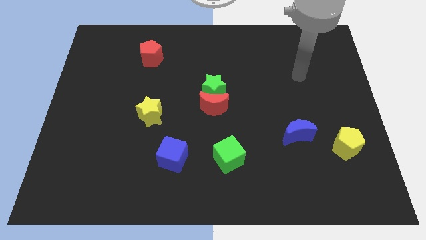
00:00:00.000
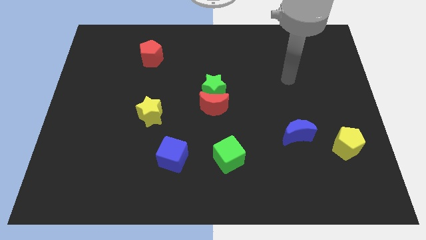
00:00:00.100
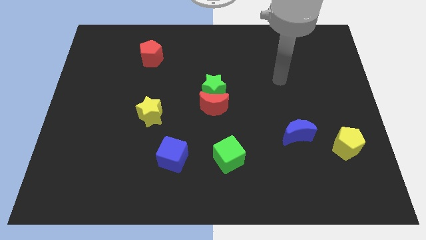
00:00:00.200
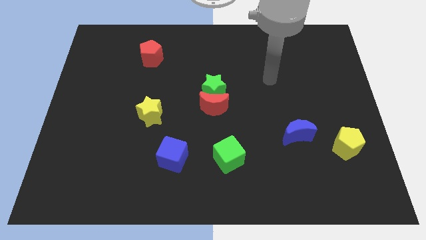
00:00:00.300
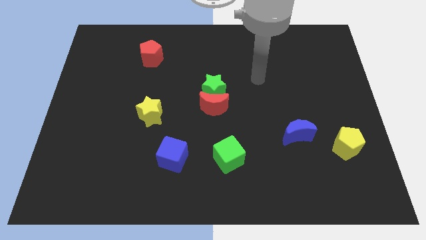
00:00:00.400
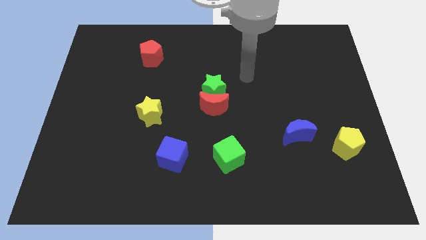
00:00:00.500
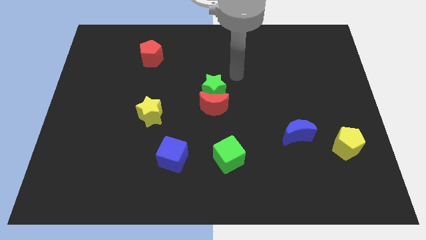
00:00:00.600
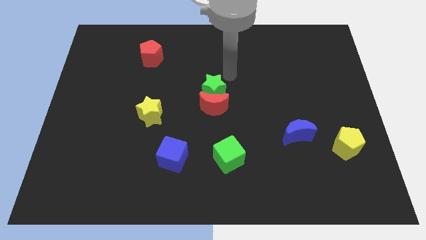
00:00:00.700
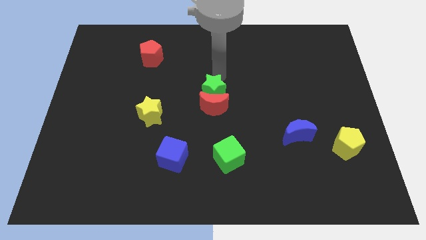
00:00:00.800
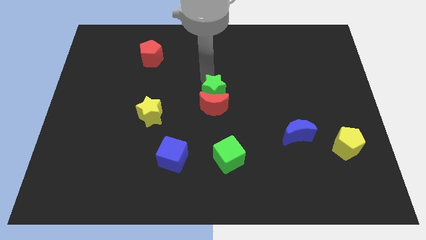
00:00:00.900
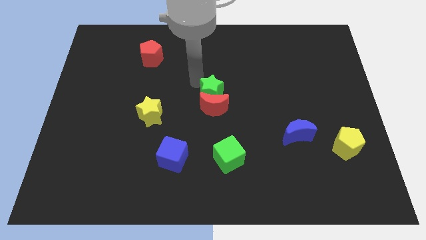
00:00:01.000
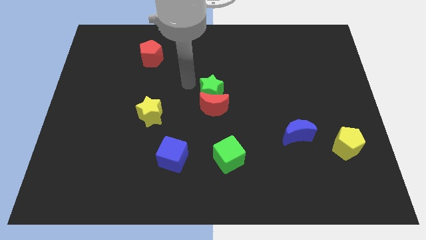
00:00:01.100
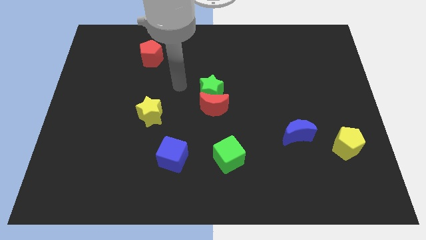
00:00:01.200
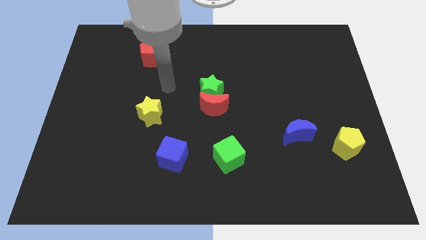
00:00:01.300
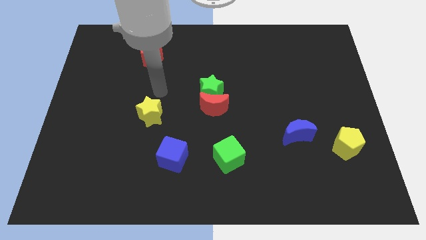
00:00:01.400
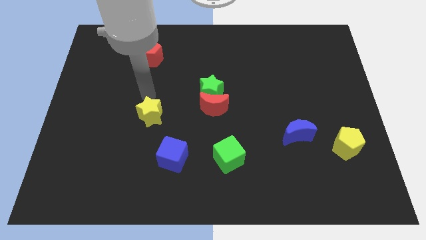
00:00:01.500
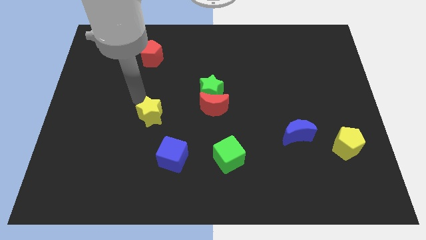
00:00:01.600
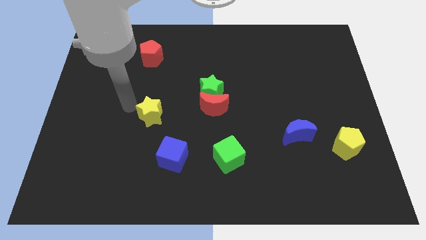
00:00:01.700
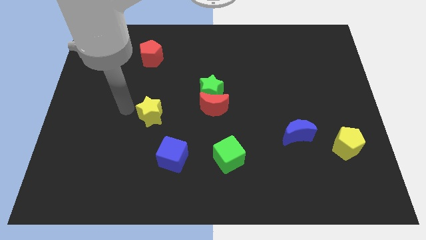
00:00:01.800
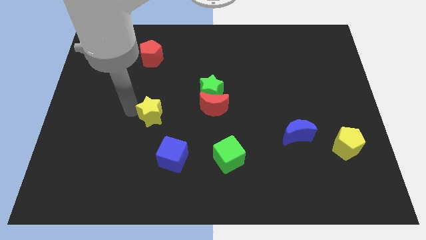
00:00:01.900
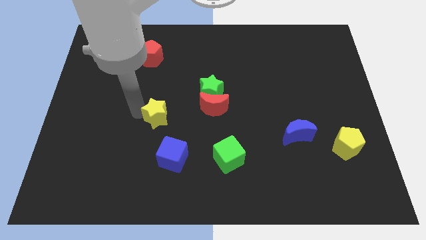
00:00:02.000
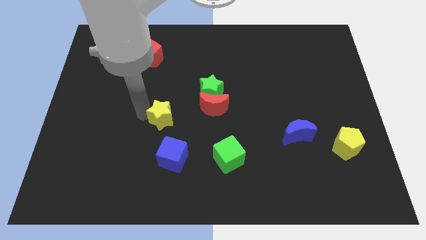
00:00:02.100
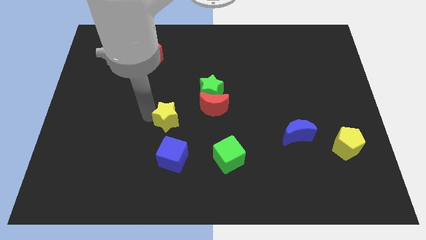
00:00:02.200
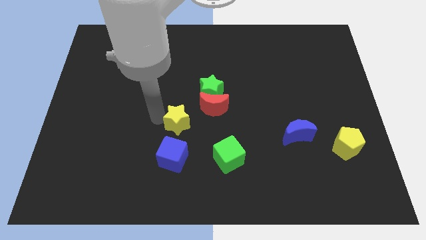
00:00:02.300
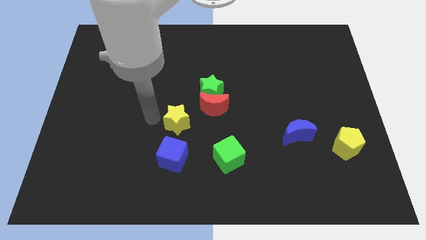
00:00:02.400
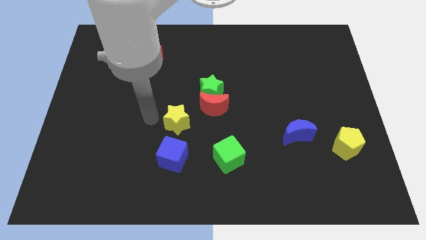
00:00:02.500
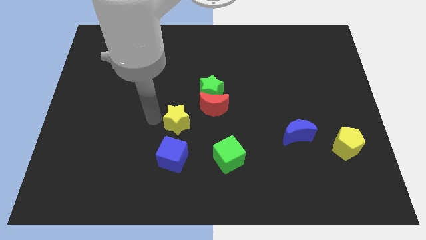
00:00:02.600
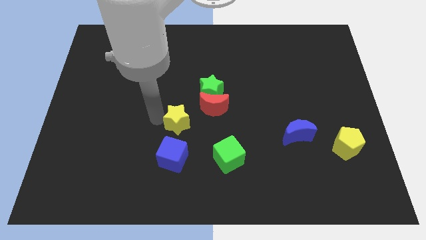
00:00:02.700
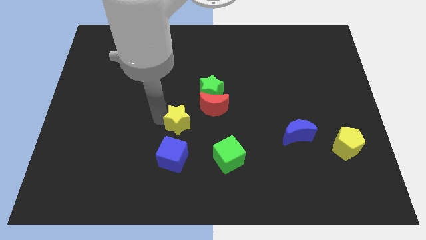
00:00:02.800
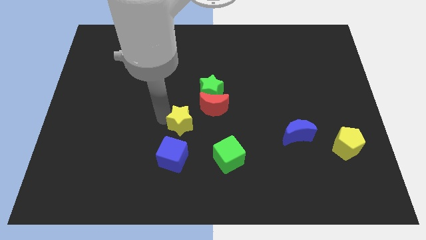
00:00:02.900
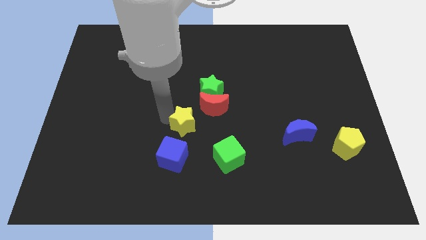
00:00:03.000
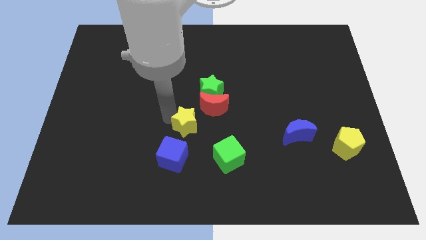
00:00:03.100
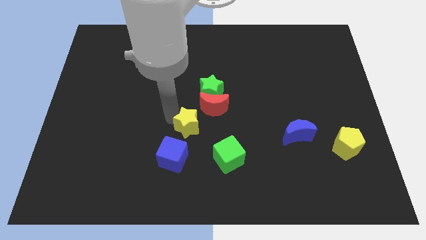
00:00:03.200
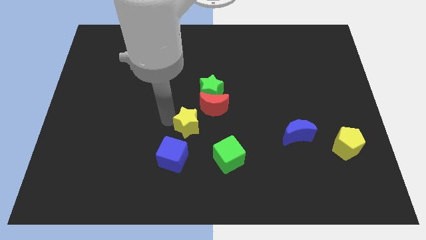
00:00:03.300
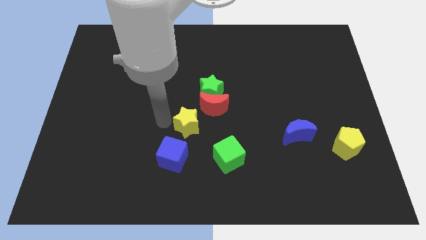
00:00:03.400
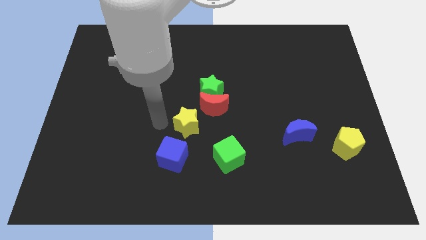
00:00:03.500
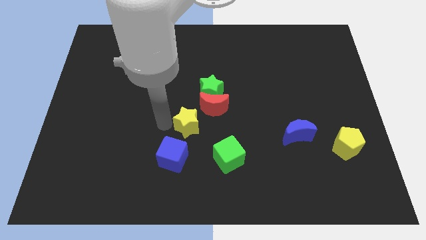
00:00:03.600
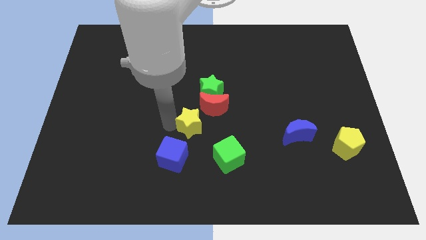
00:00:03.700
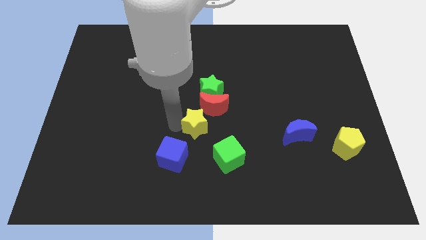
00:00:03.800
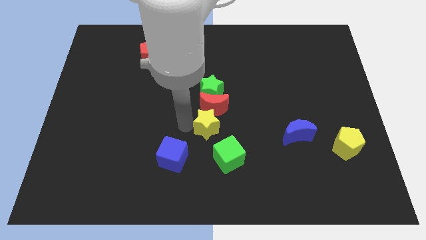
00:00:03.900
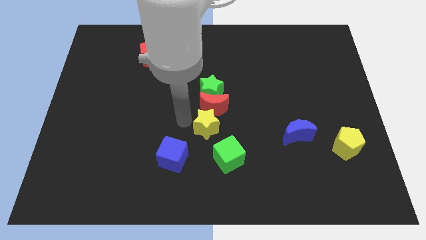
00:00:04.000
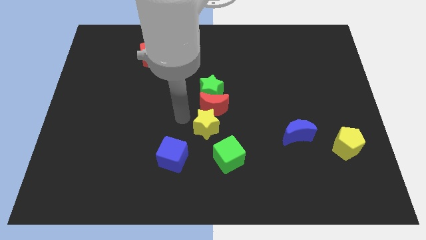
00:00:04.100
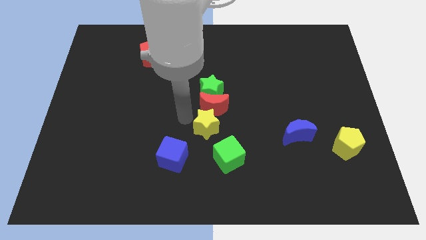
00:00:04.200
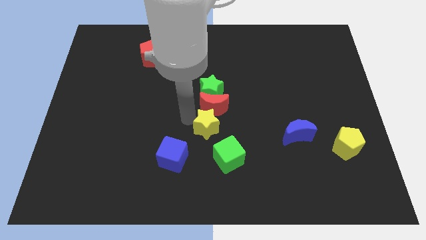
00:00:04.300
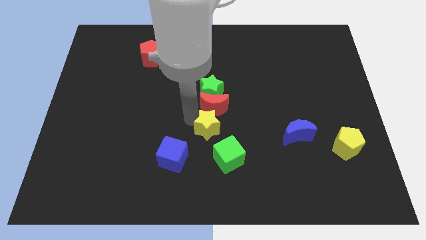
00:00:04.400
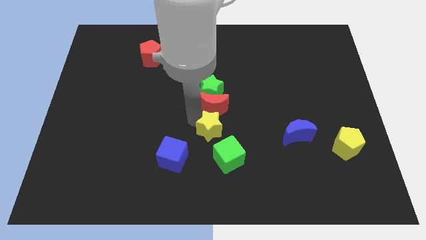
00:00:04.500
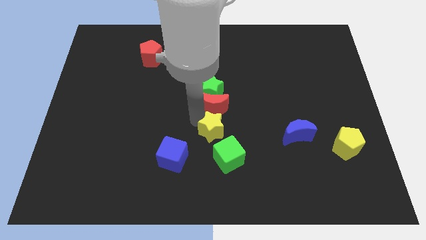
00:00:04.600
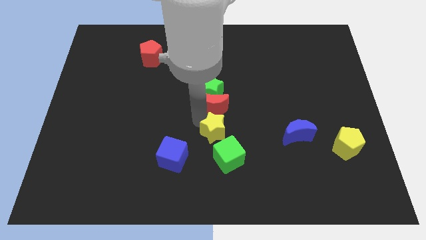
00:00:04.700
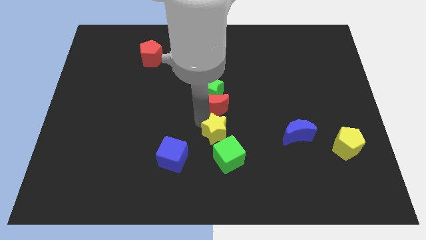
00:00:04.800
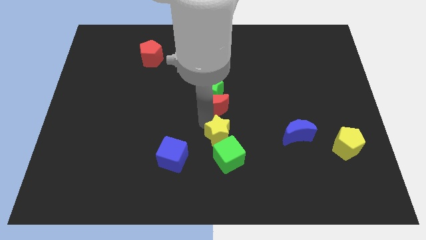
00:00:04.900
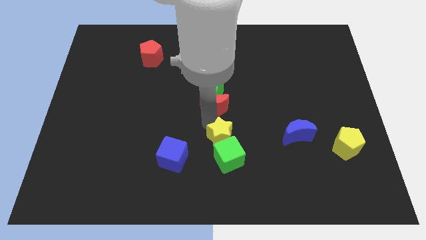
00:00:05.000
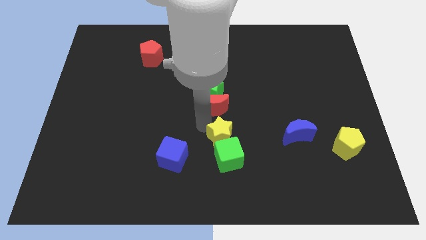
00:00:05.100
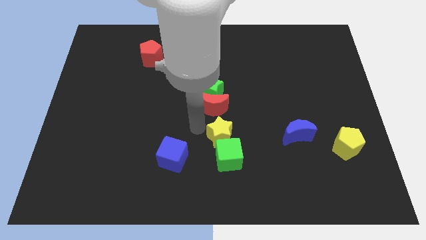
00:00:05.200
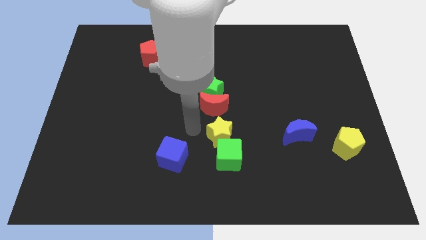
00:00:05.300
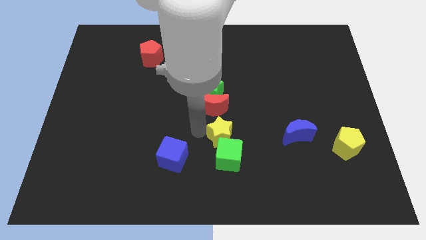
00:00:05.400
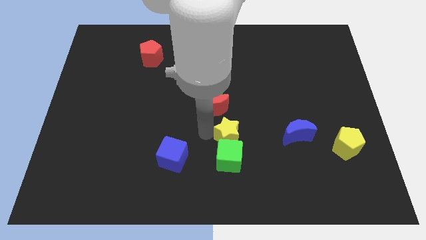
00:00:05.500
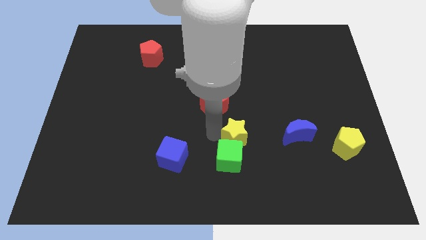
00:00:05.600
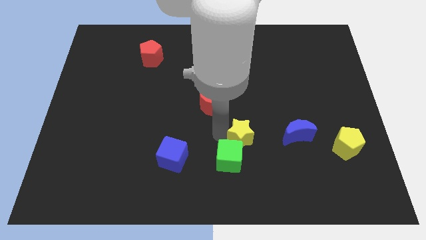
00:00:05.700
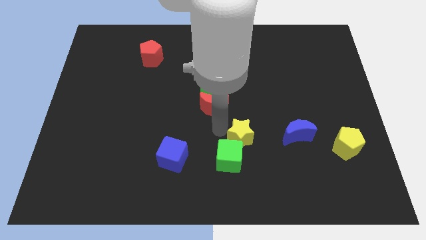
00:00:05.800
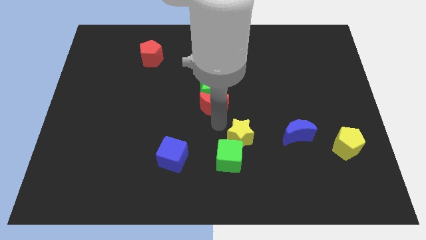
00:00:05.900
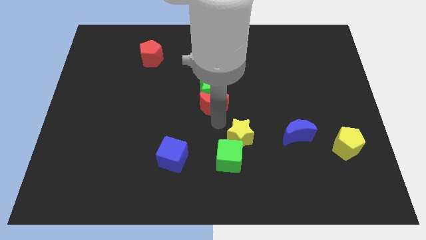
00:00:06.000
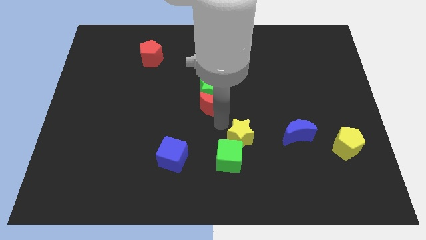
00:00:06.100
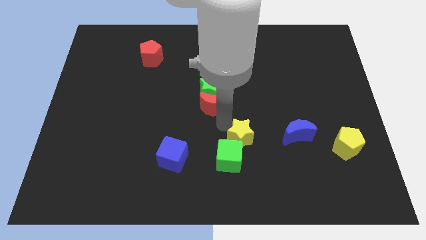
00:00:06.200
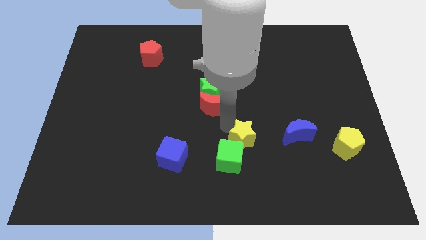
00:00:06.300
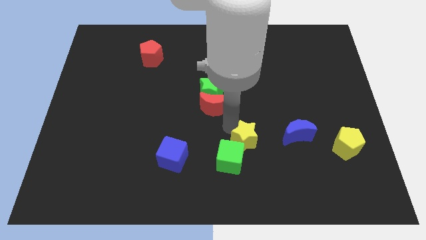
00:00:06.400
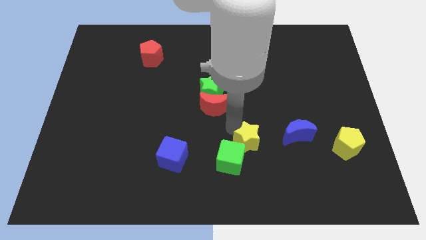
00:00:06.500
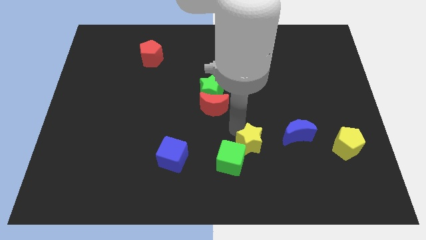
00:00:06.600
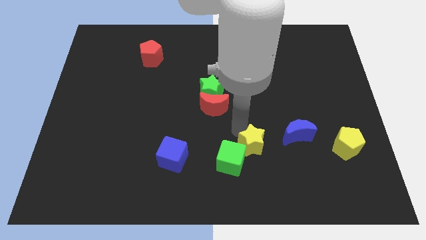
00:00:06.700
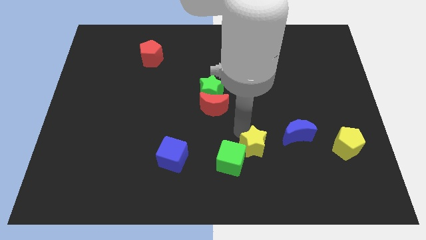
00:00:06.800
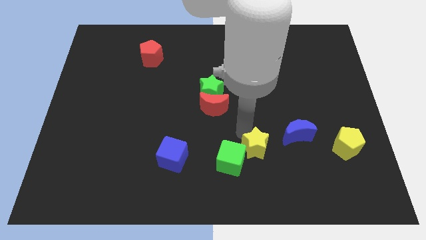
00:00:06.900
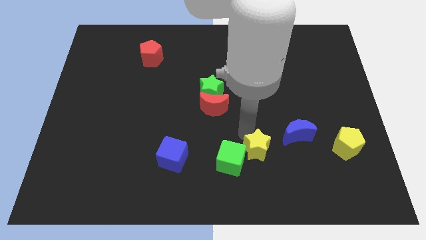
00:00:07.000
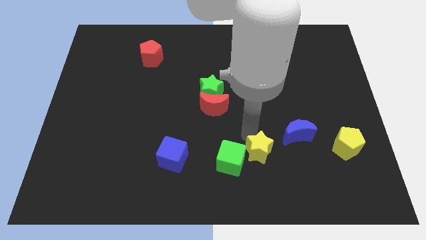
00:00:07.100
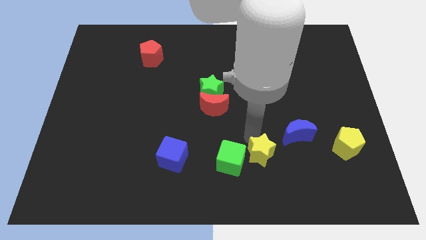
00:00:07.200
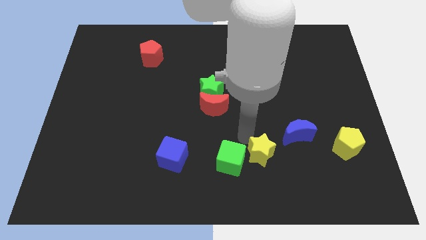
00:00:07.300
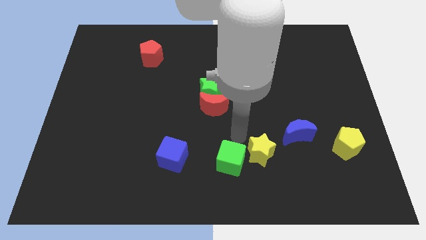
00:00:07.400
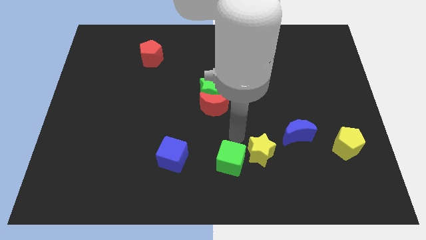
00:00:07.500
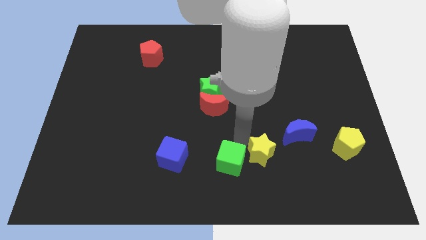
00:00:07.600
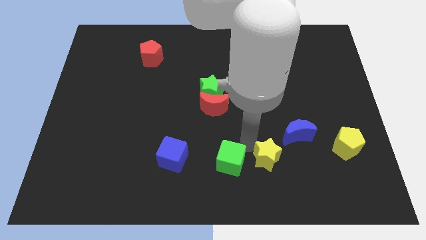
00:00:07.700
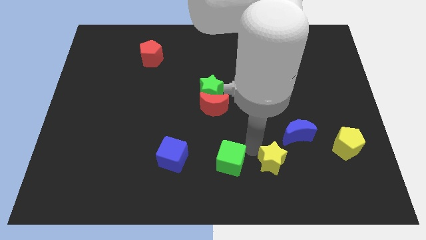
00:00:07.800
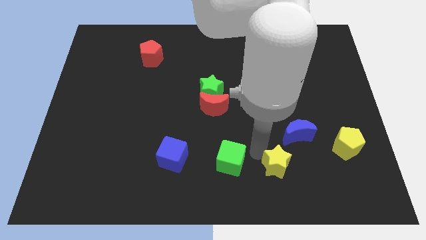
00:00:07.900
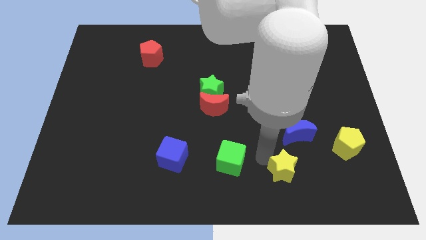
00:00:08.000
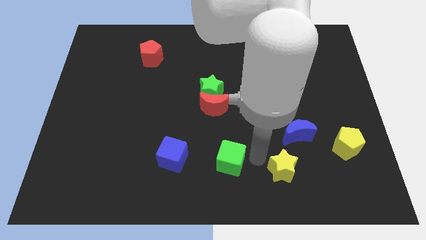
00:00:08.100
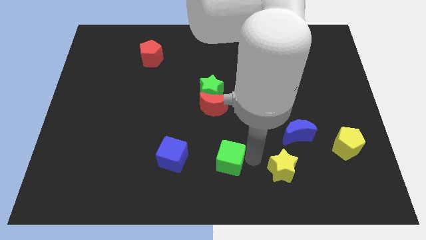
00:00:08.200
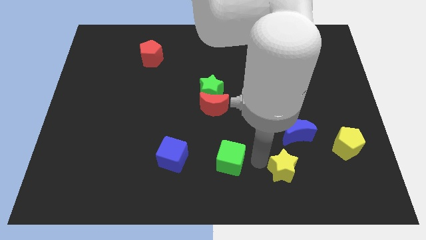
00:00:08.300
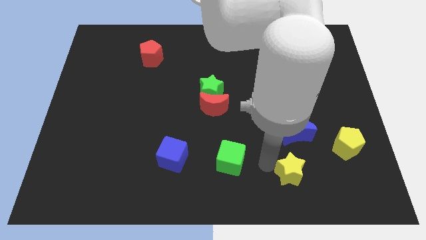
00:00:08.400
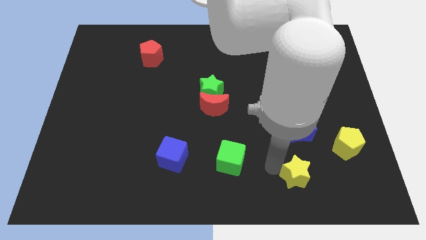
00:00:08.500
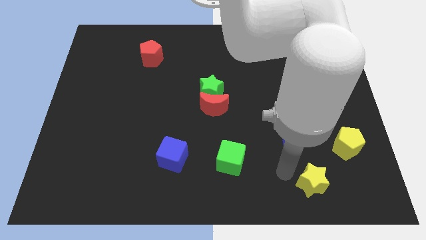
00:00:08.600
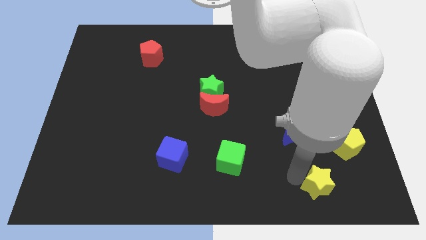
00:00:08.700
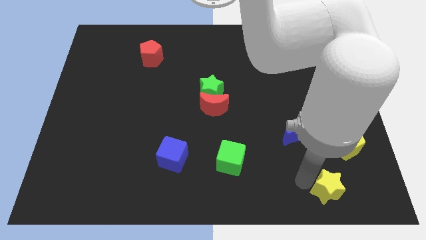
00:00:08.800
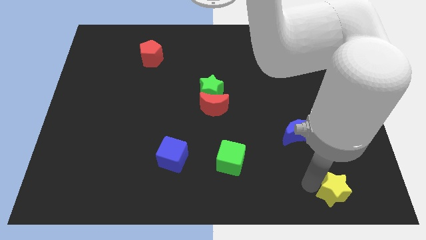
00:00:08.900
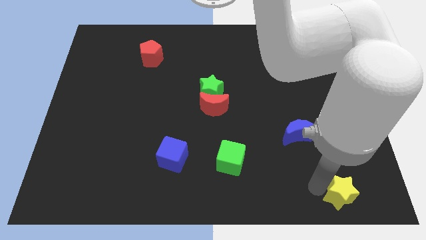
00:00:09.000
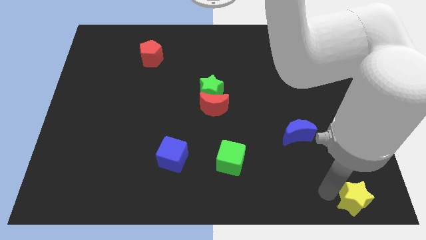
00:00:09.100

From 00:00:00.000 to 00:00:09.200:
slide the yellow star to the bottom right
